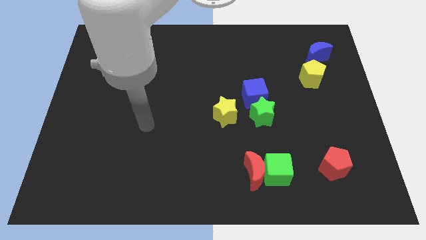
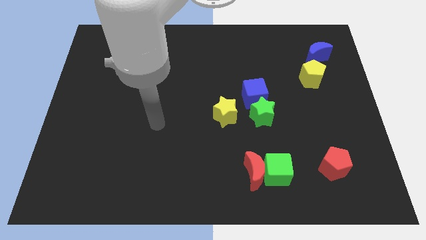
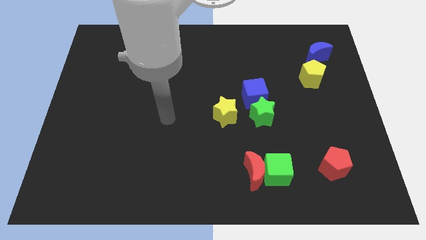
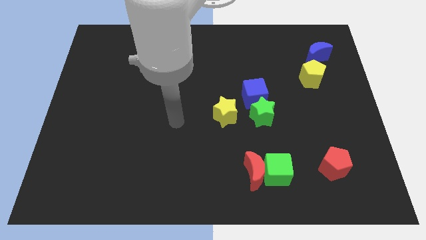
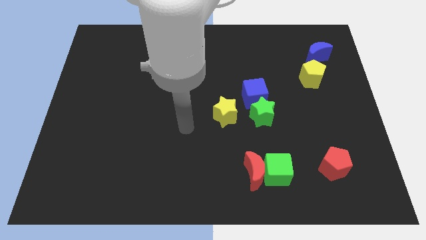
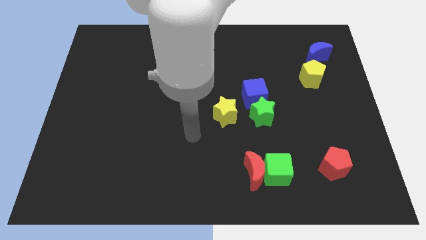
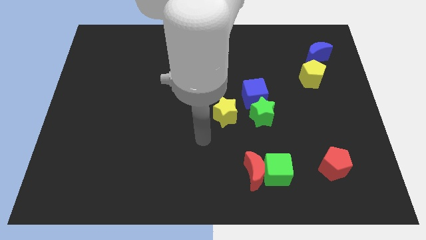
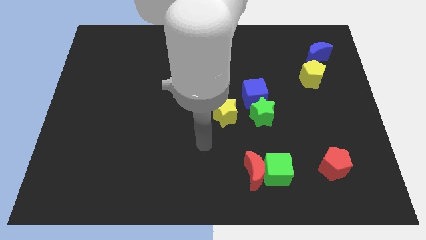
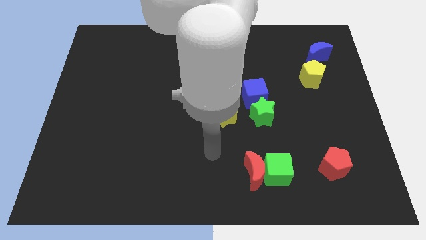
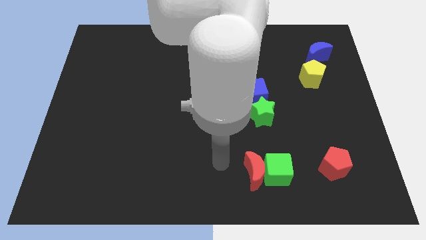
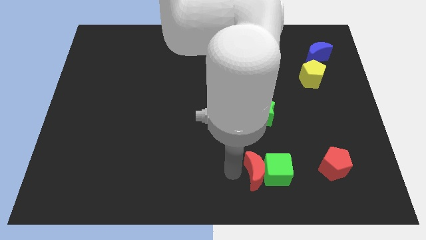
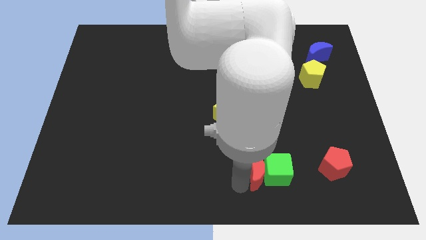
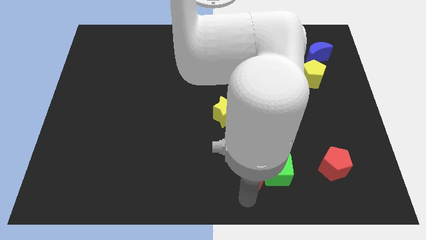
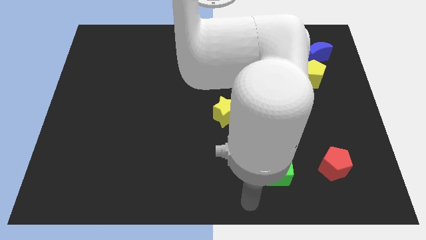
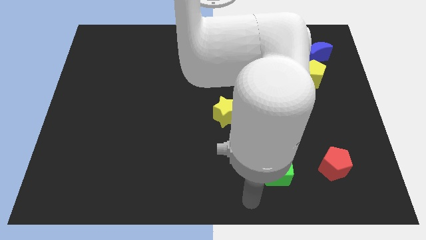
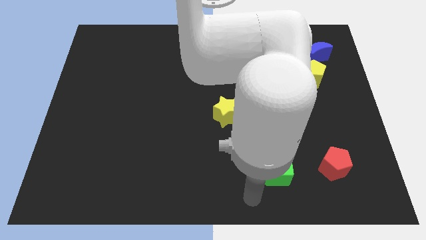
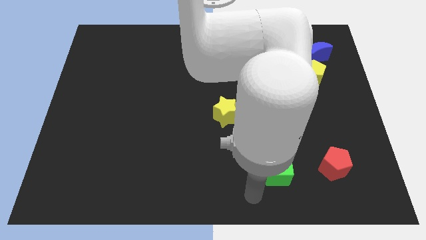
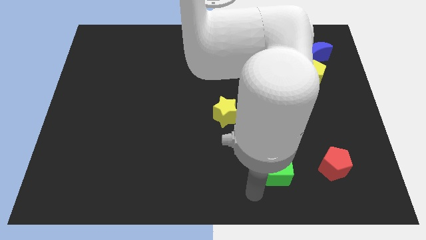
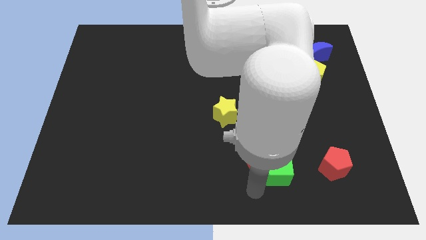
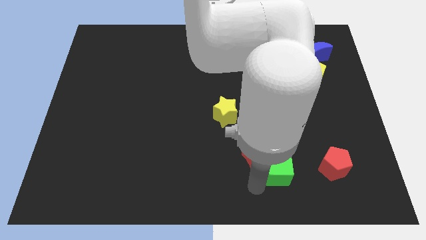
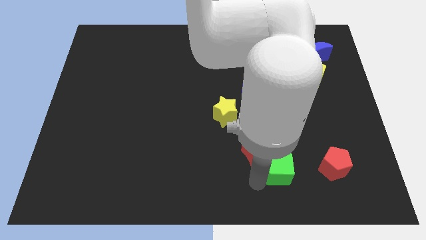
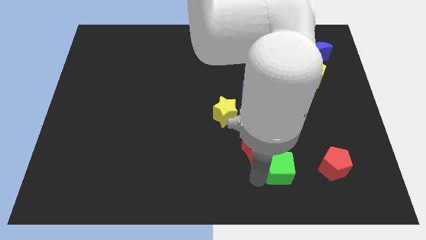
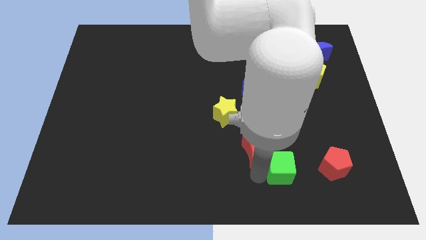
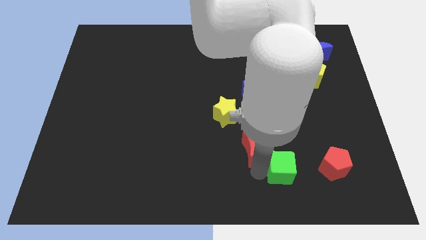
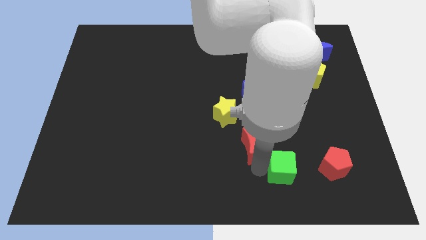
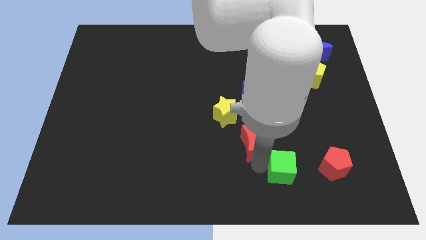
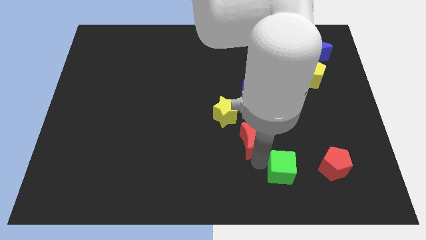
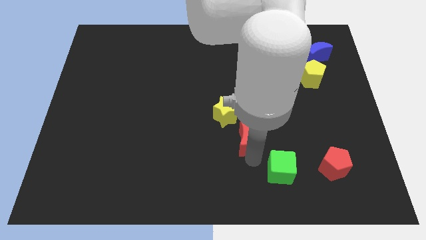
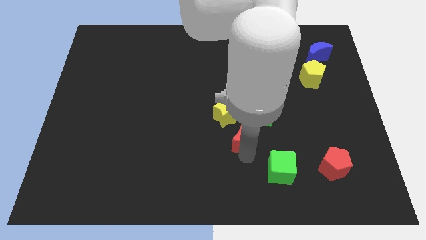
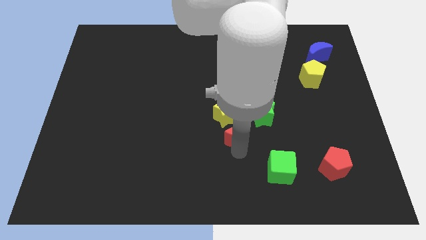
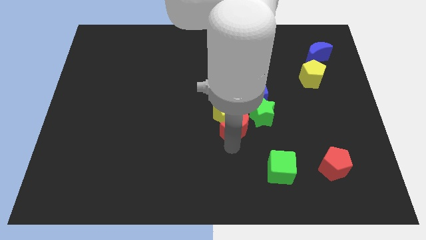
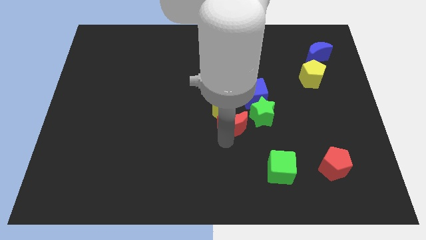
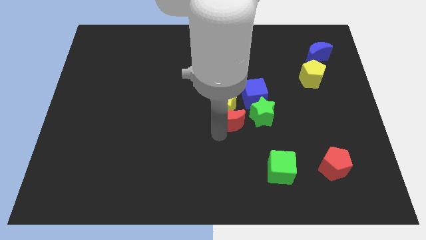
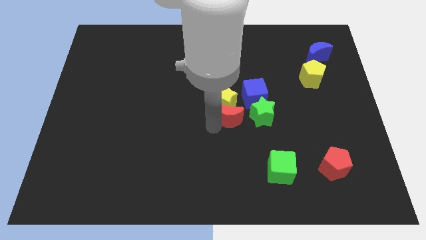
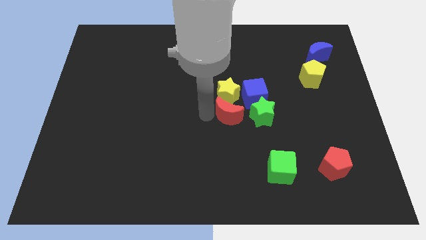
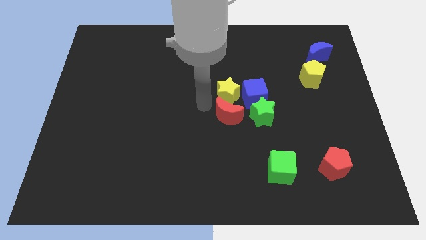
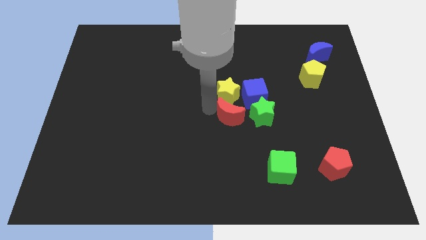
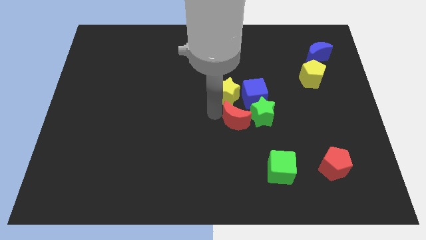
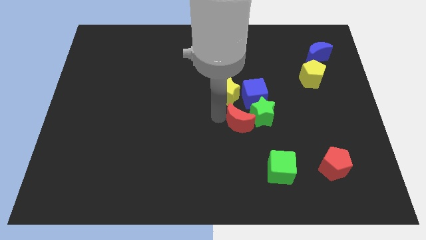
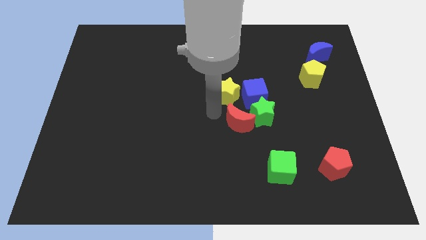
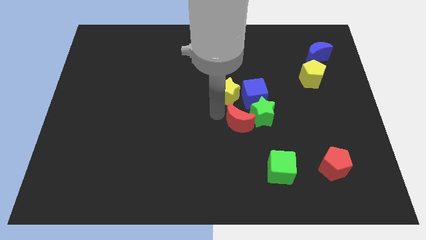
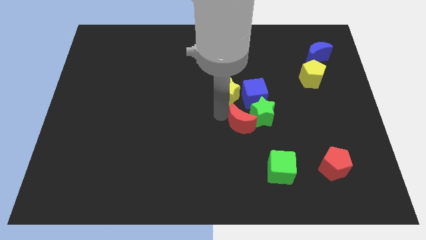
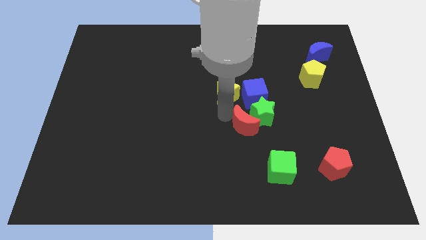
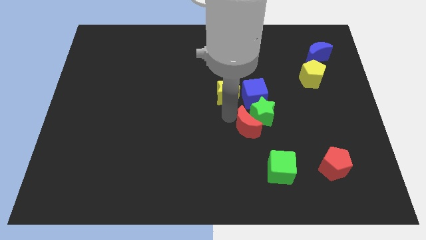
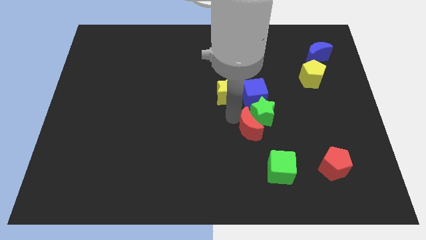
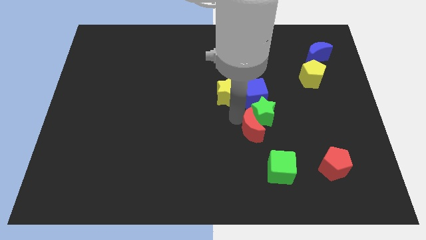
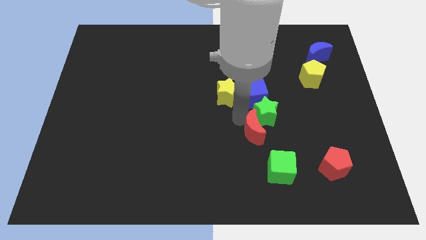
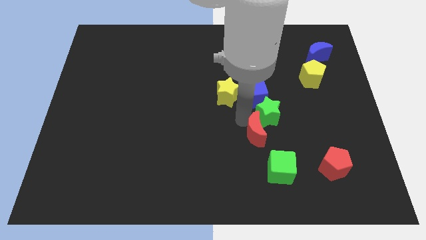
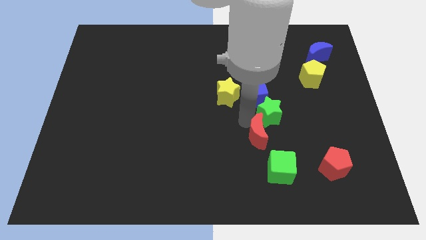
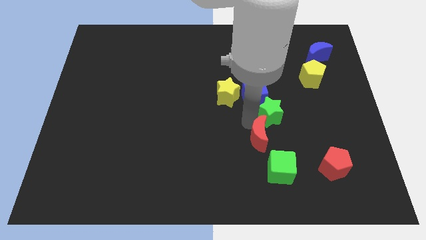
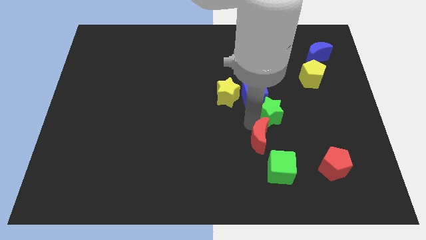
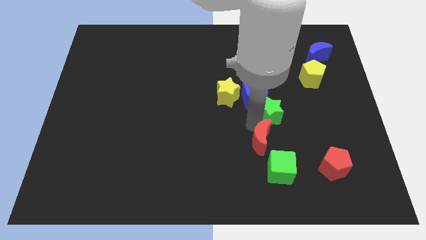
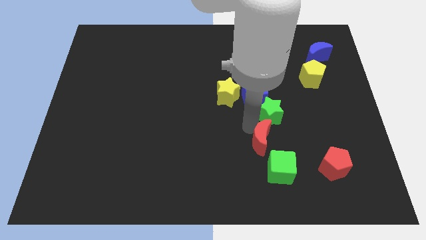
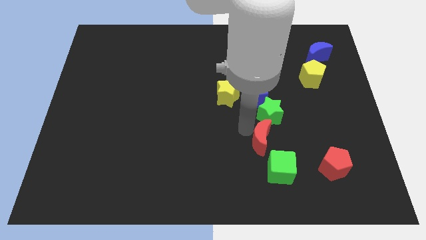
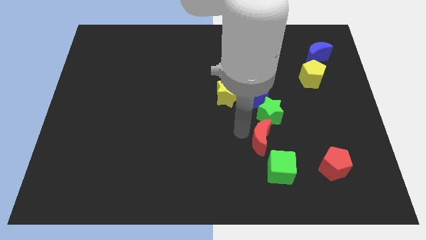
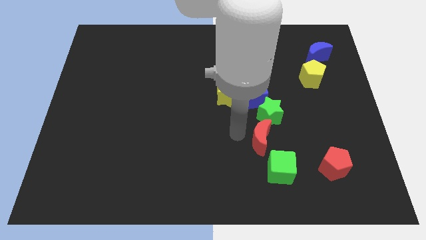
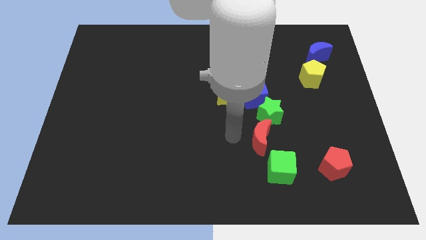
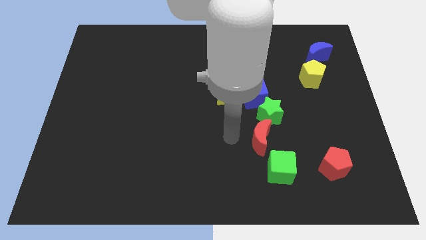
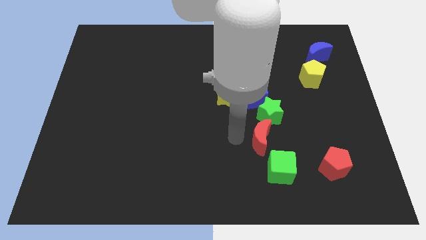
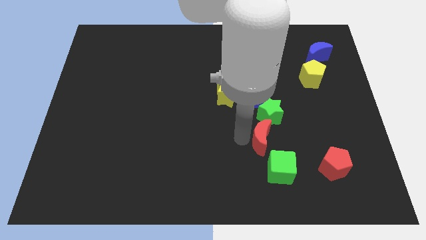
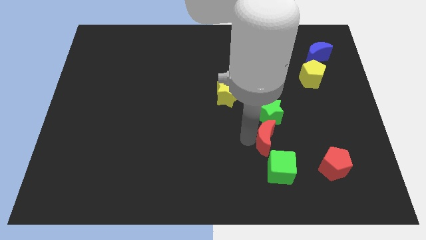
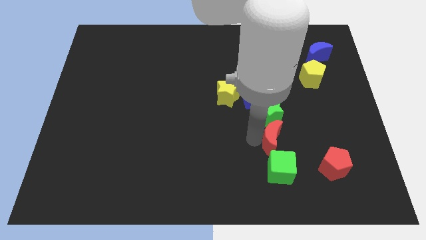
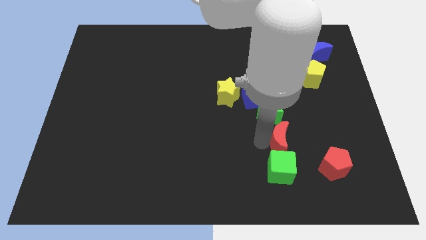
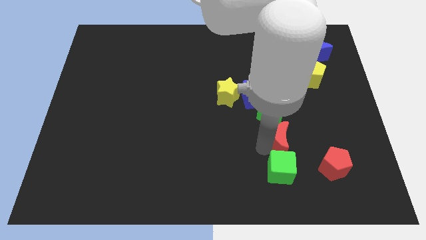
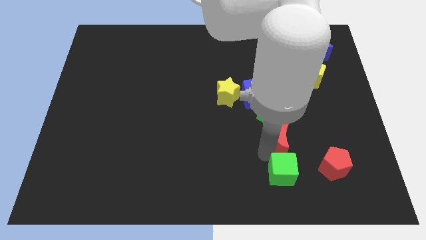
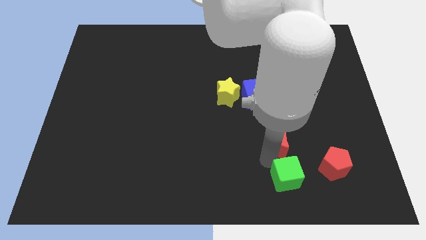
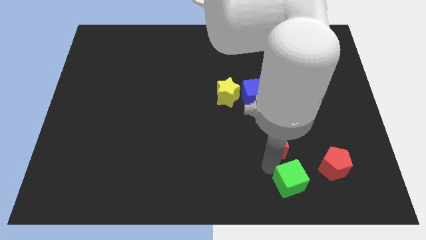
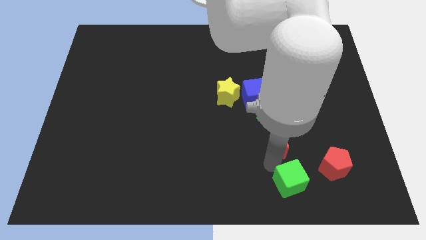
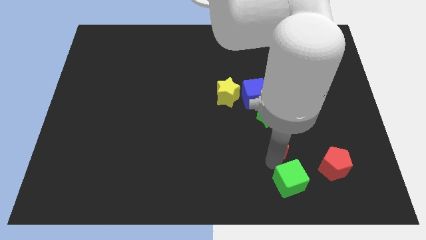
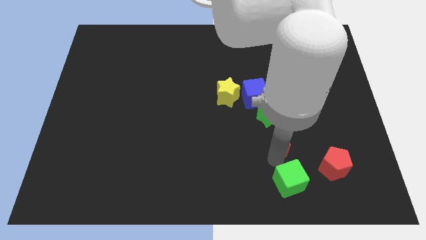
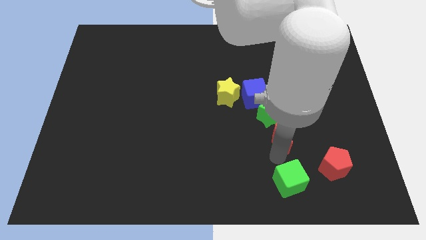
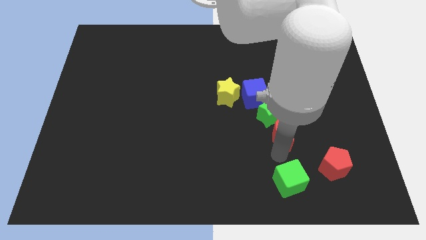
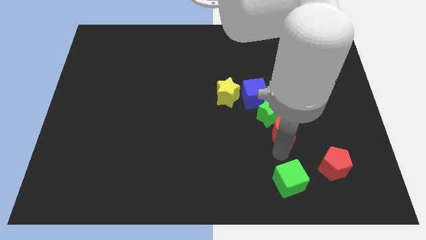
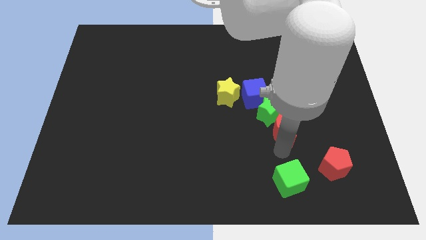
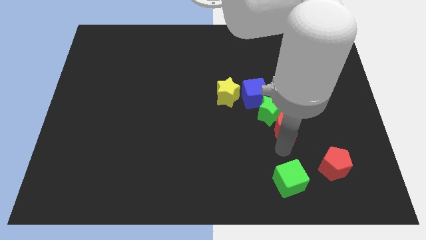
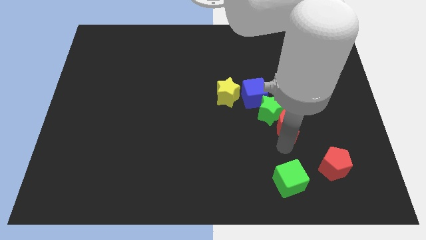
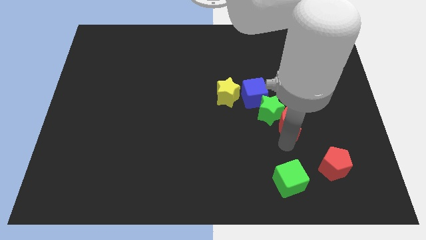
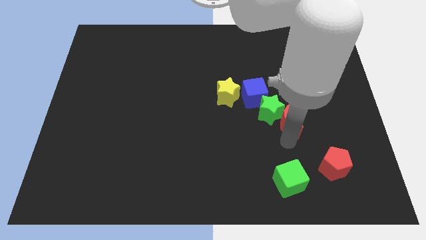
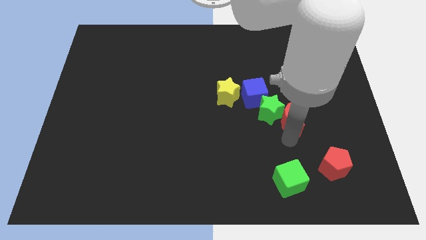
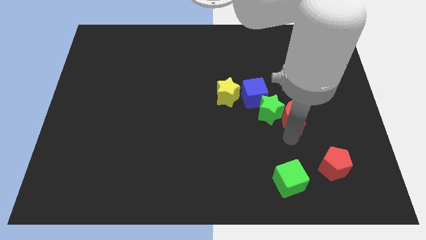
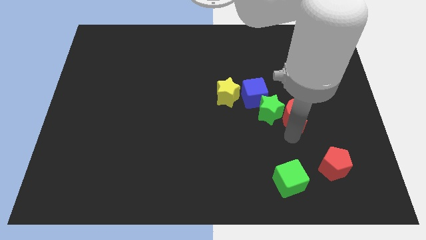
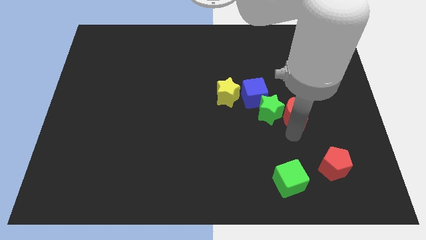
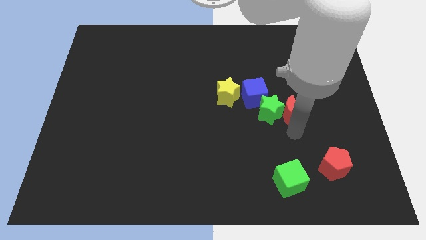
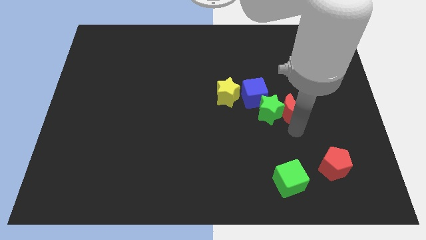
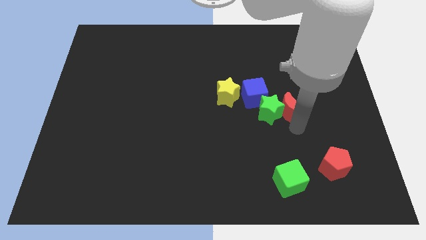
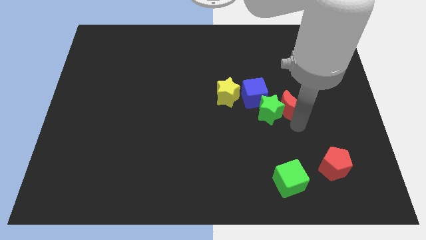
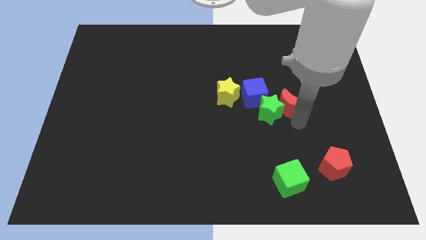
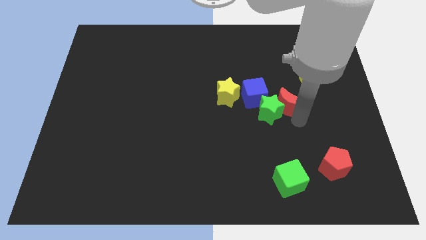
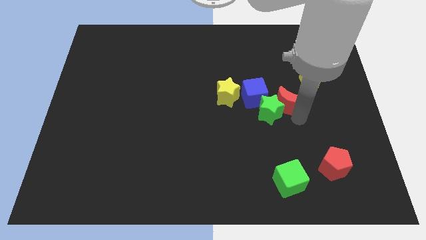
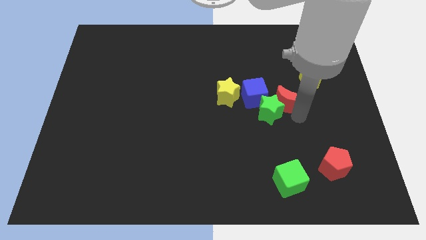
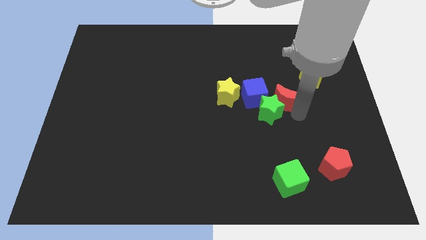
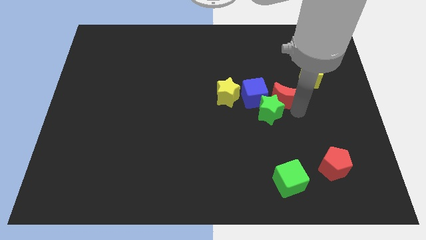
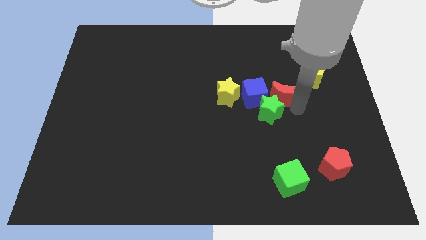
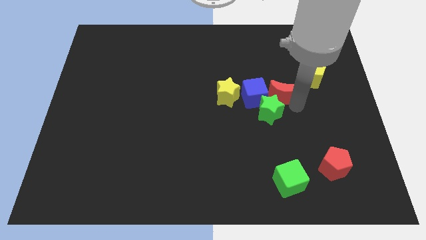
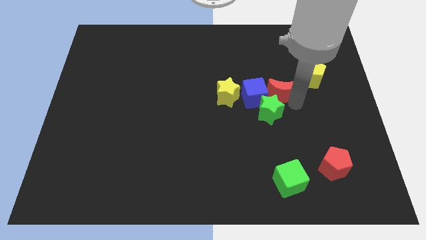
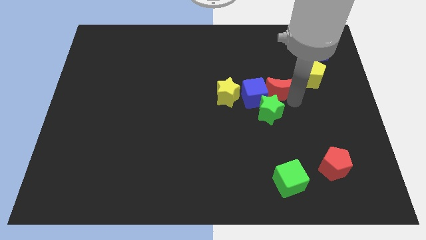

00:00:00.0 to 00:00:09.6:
put the red moon to the left side of the yellow pentagon
